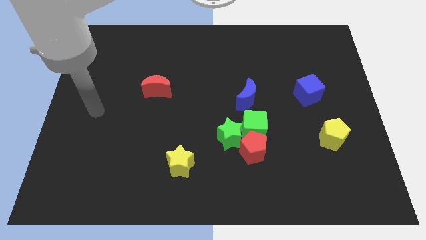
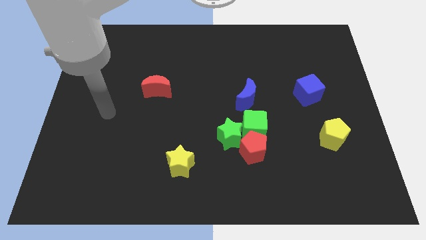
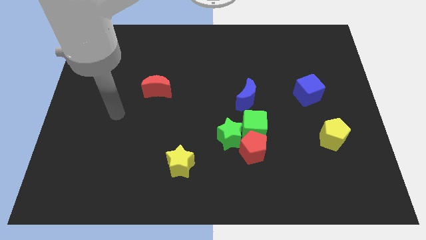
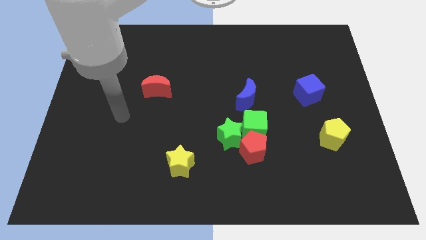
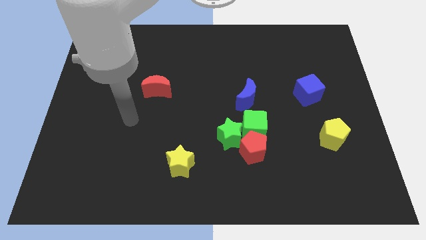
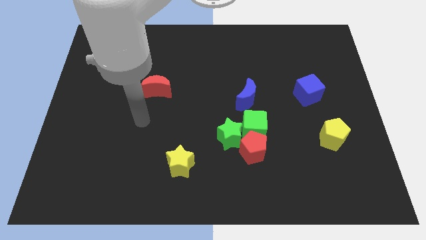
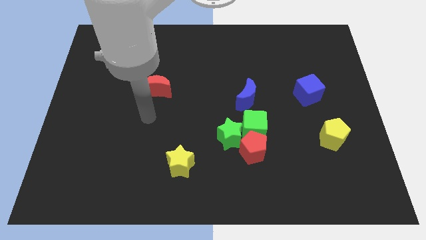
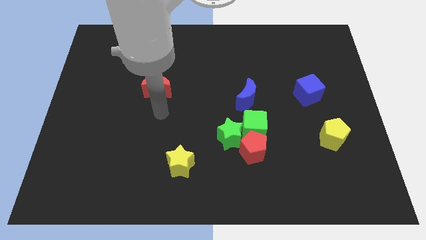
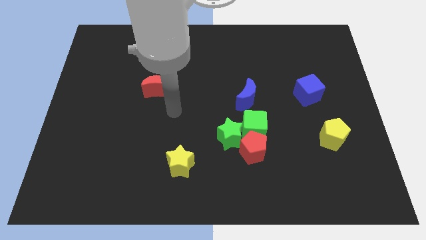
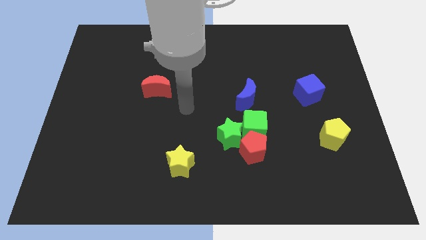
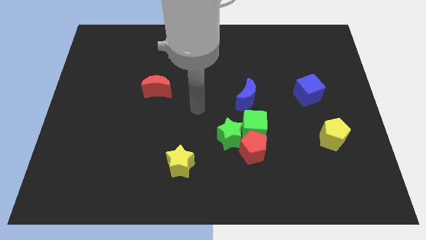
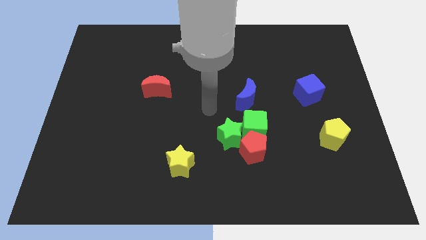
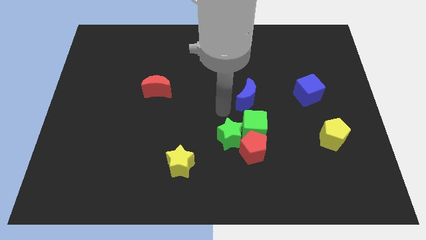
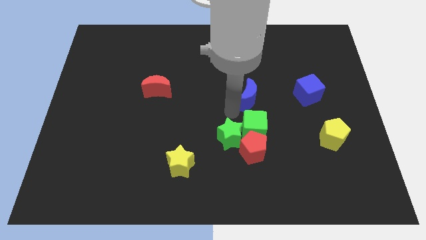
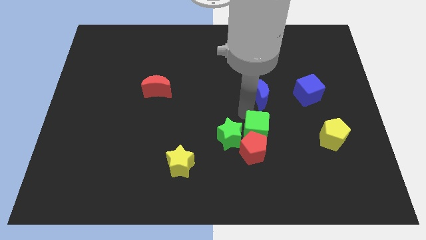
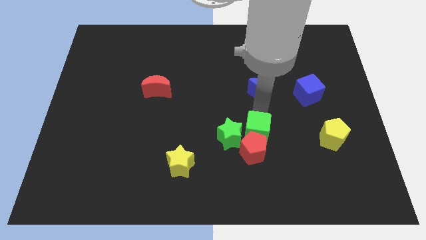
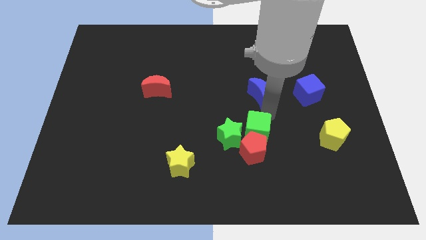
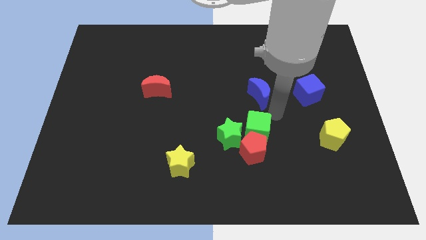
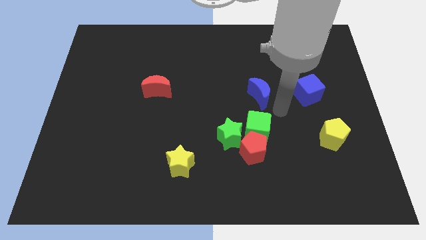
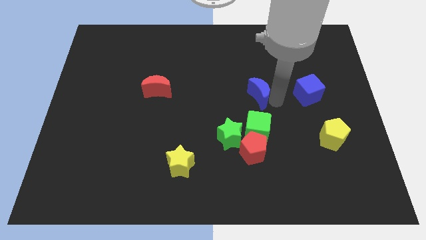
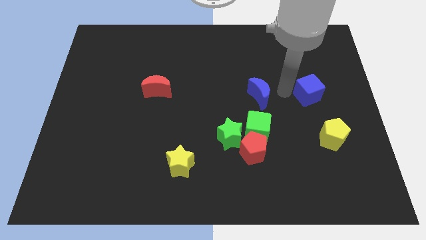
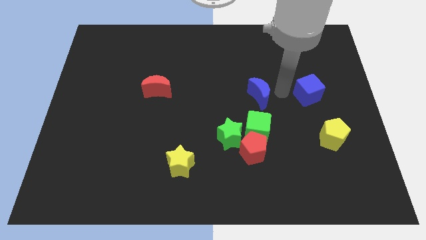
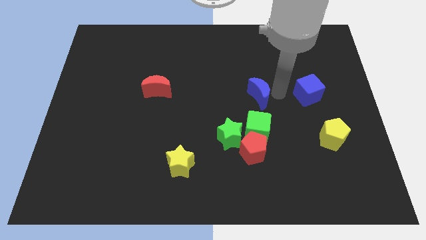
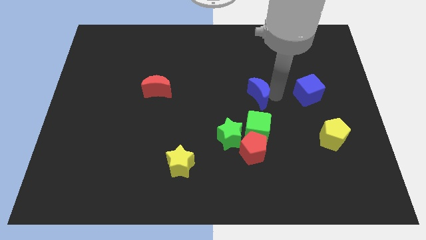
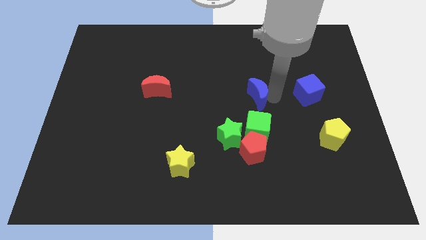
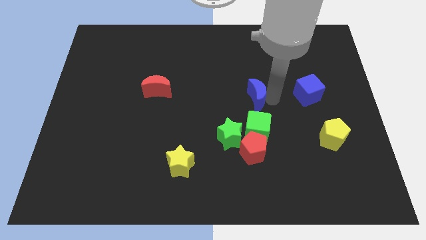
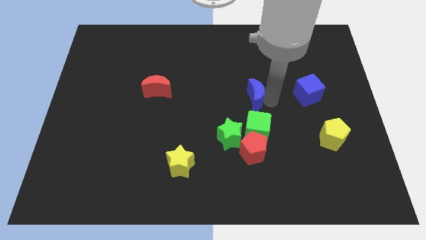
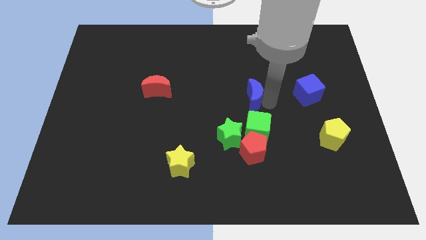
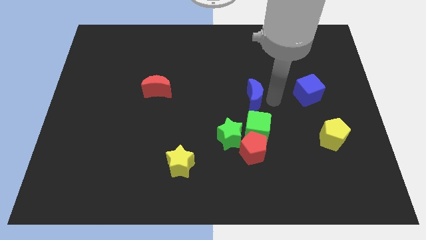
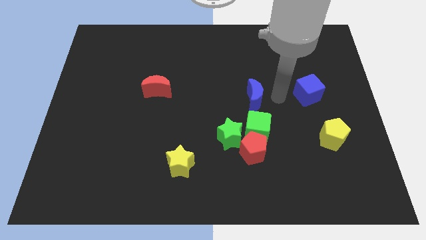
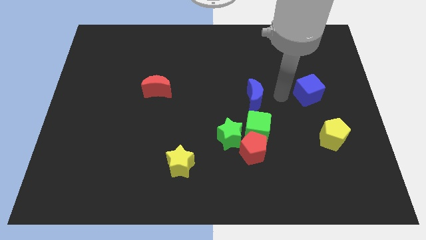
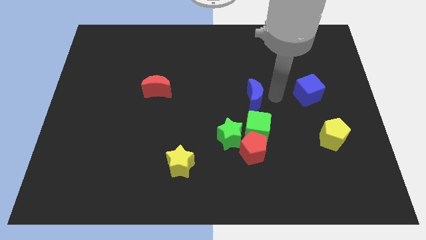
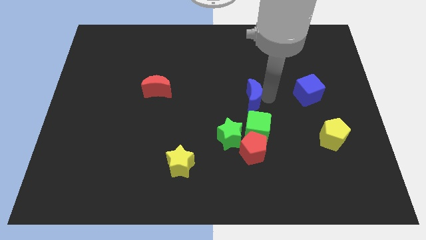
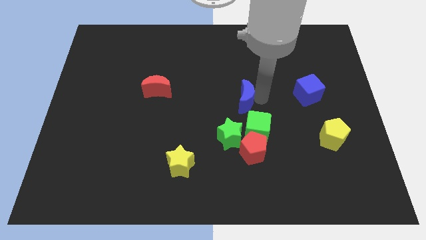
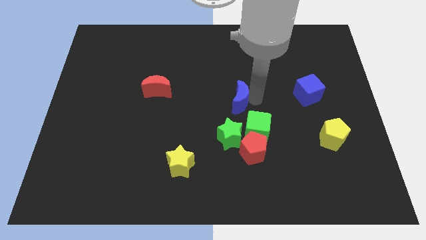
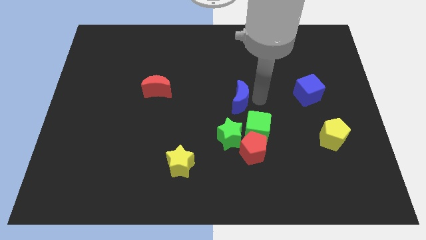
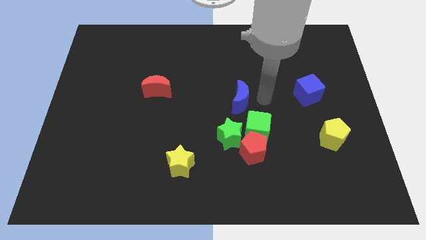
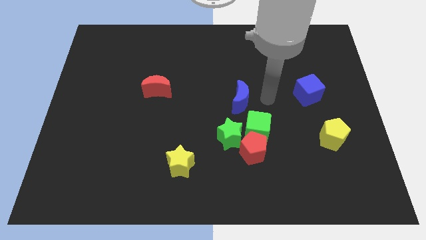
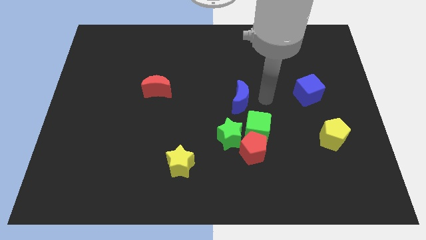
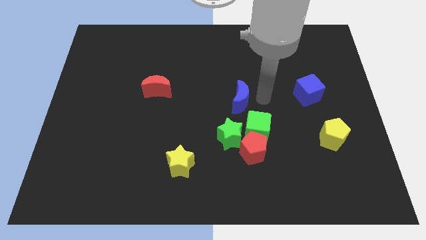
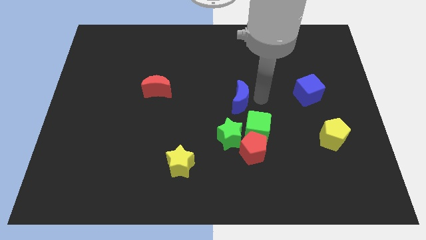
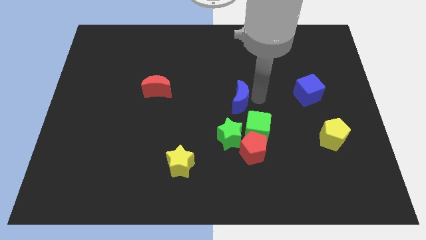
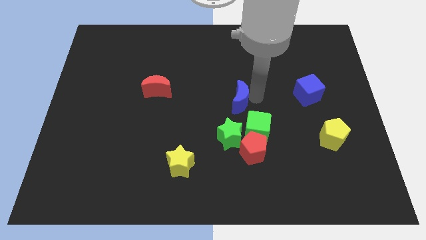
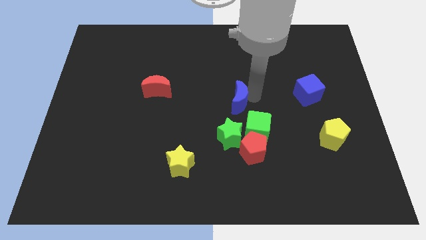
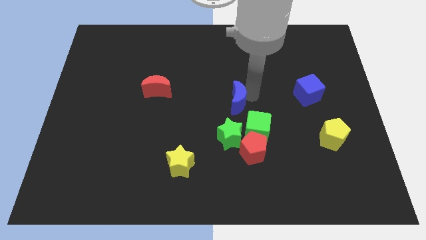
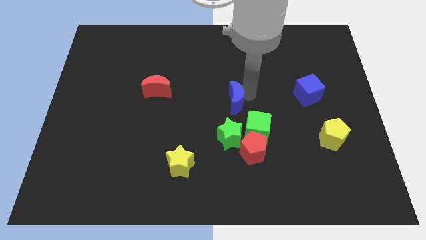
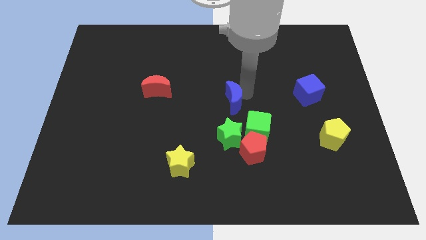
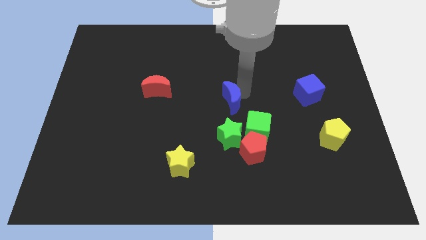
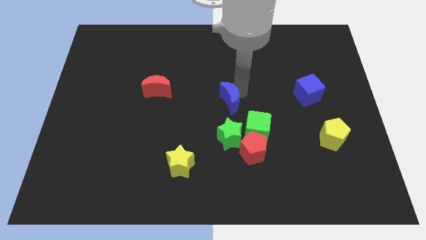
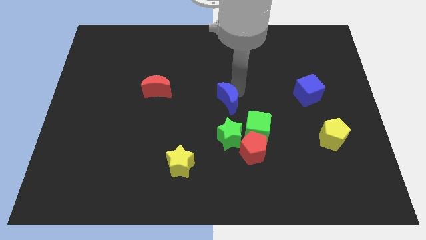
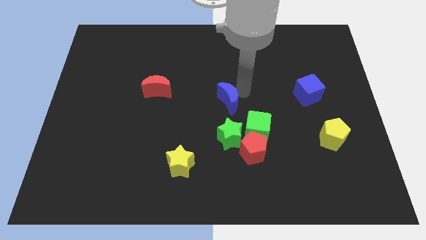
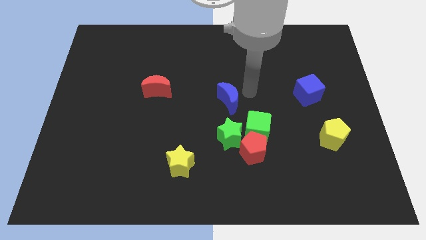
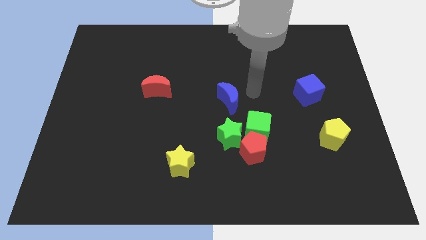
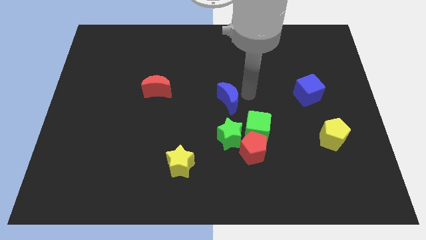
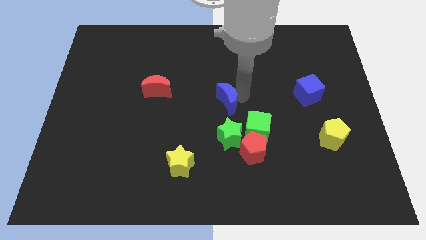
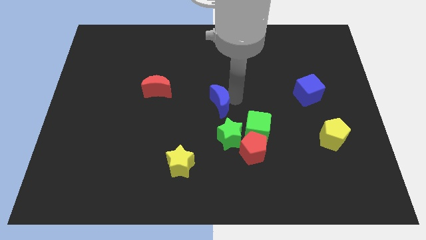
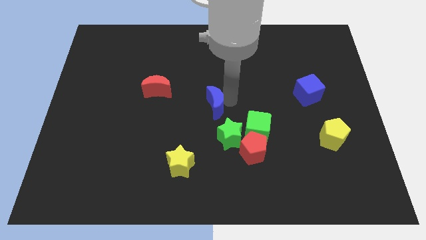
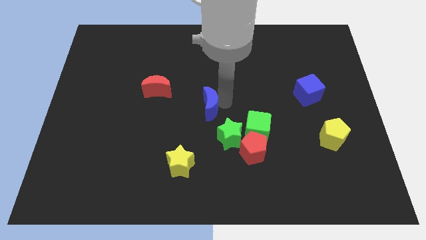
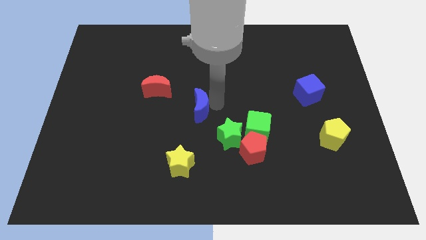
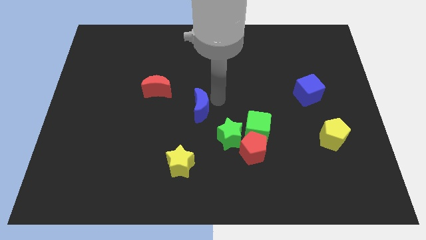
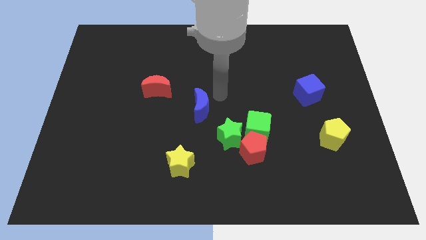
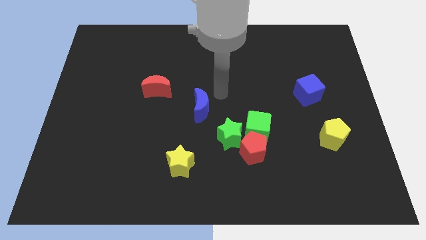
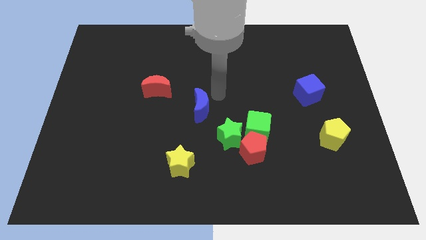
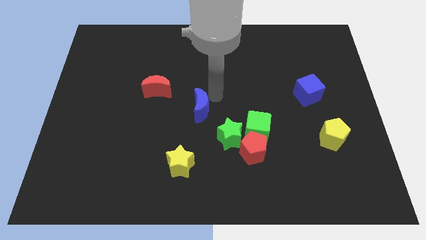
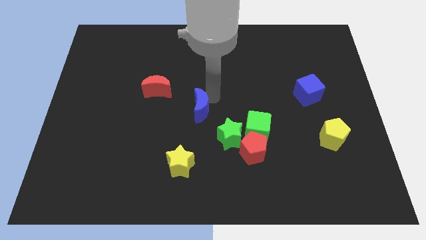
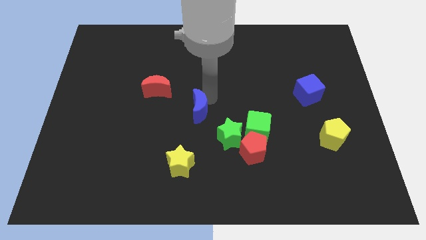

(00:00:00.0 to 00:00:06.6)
slide the blue moon above the yellow star

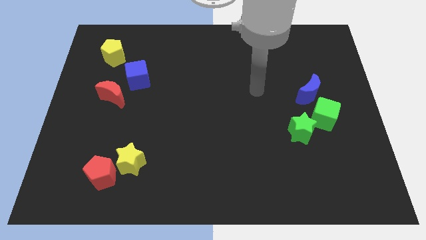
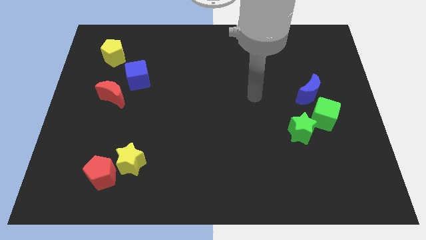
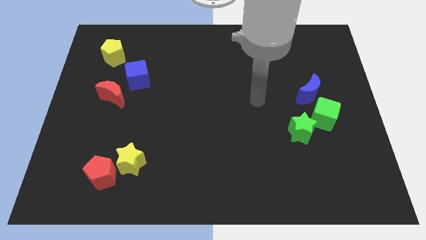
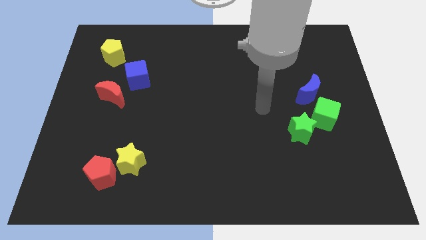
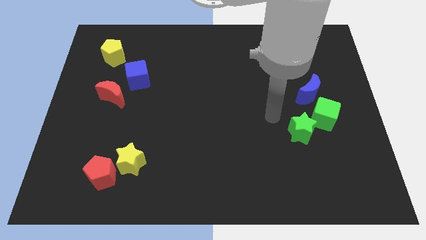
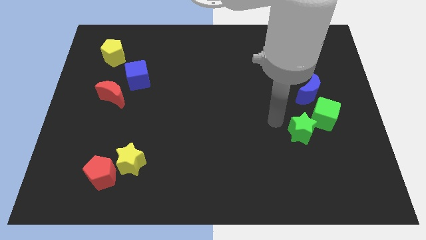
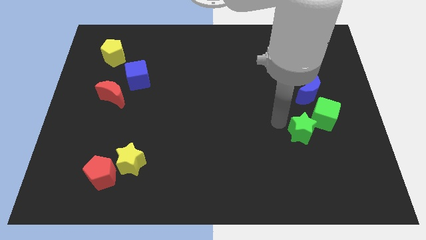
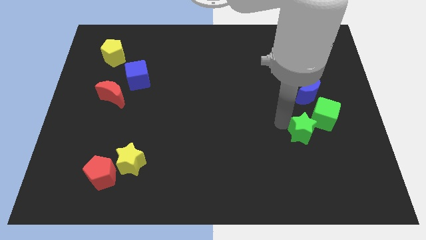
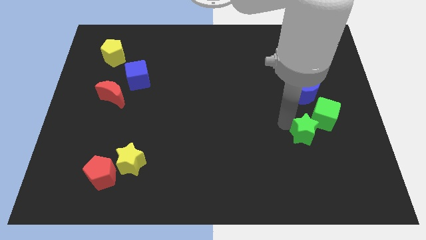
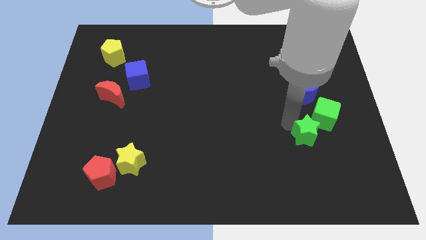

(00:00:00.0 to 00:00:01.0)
put the green star to the bottom of the green cube
